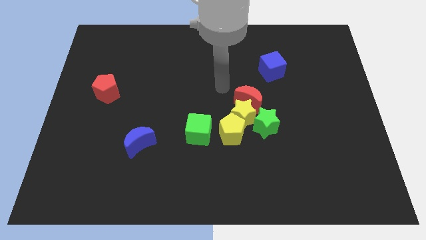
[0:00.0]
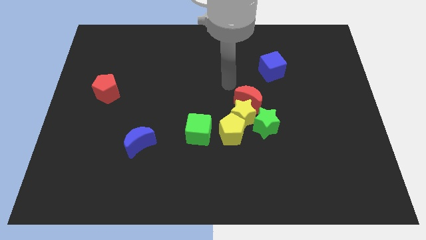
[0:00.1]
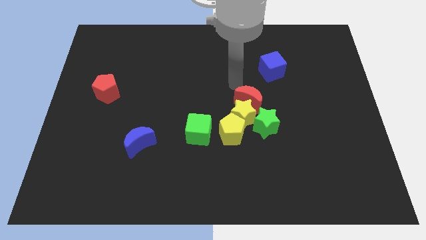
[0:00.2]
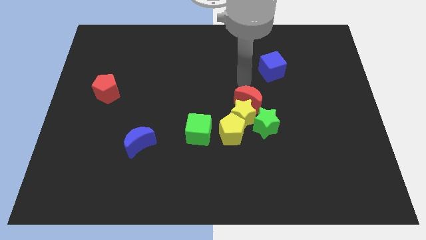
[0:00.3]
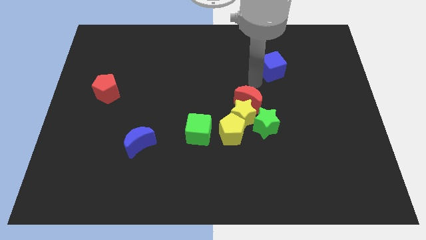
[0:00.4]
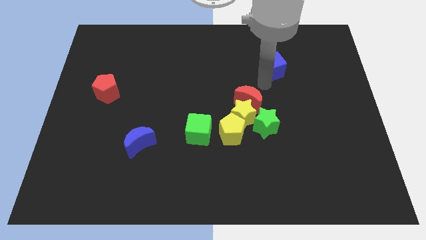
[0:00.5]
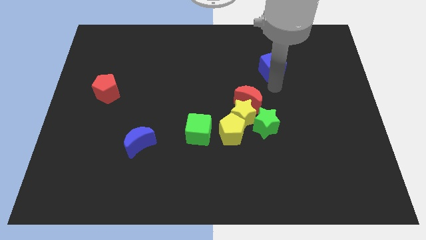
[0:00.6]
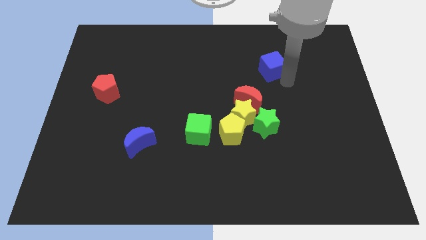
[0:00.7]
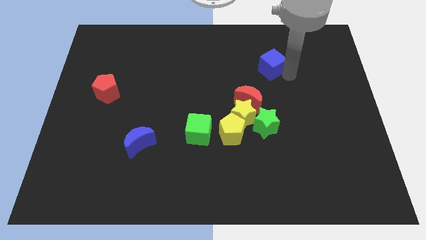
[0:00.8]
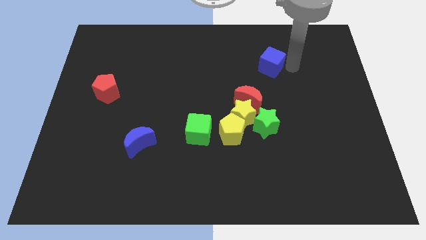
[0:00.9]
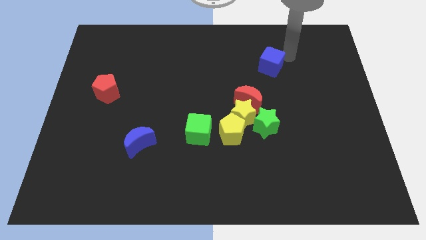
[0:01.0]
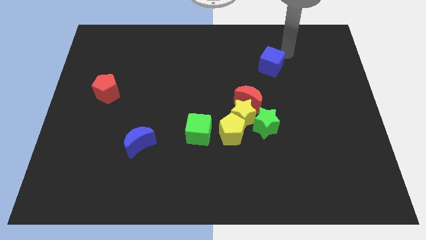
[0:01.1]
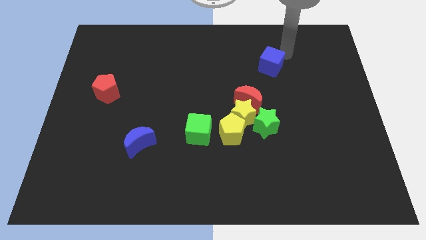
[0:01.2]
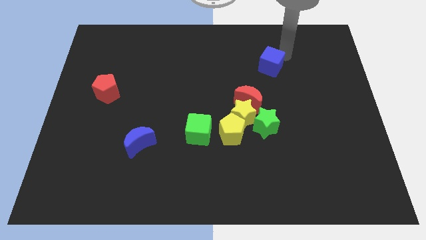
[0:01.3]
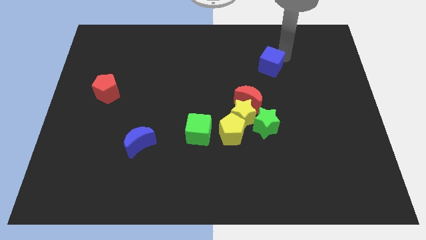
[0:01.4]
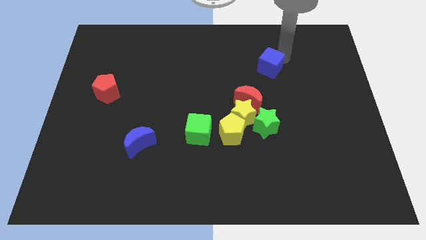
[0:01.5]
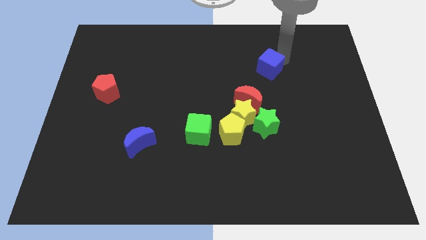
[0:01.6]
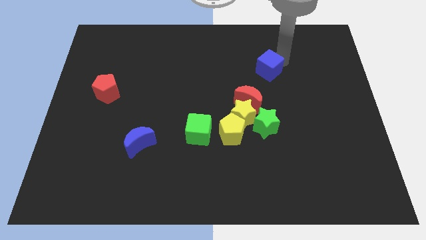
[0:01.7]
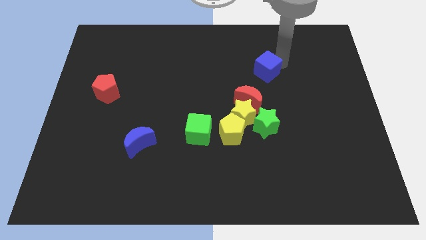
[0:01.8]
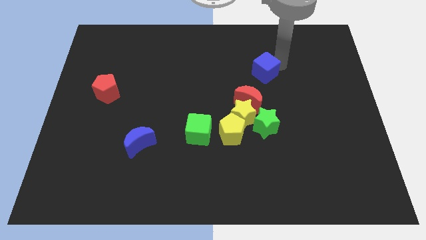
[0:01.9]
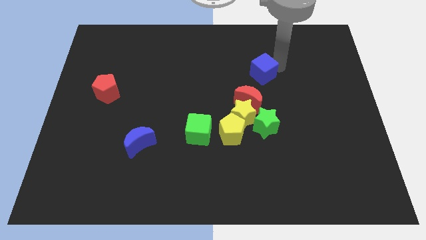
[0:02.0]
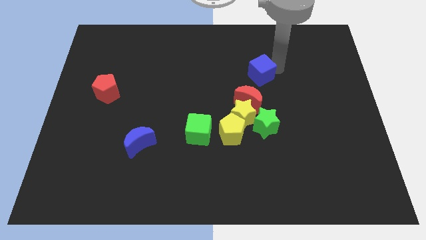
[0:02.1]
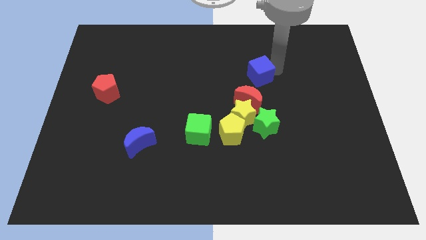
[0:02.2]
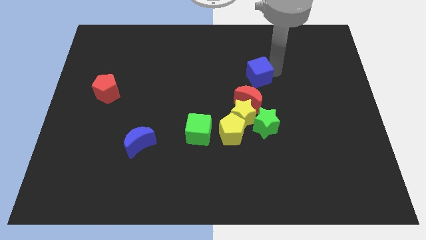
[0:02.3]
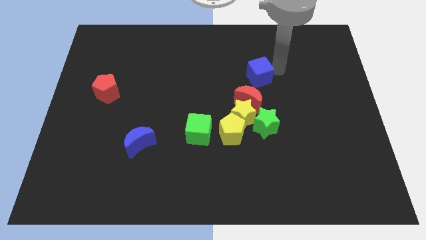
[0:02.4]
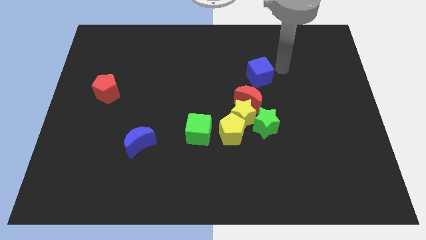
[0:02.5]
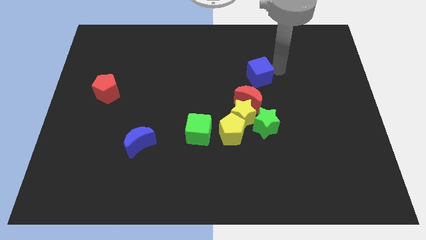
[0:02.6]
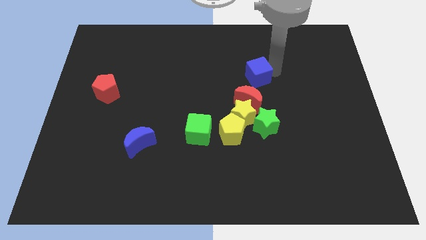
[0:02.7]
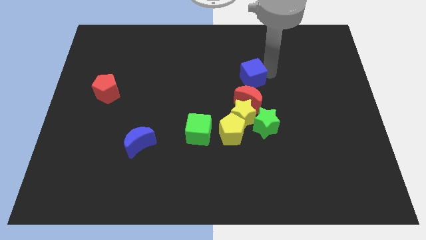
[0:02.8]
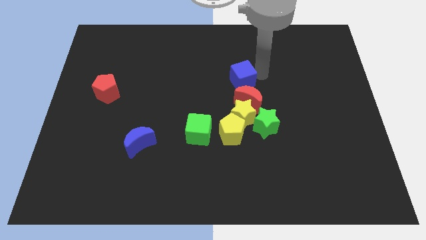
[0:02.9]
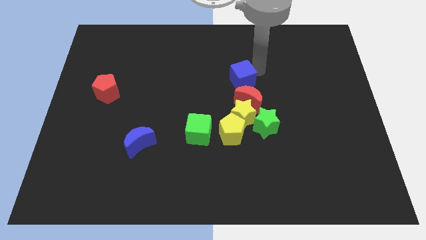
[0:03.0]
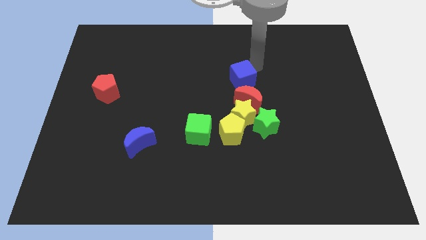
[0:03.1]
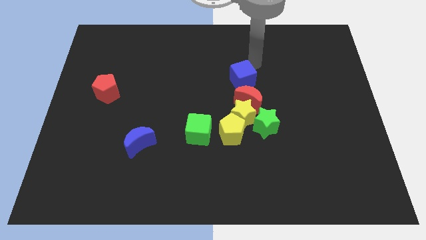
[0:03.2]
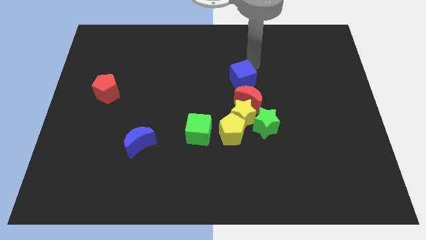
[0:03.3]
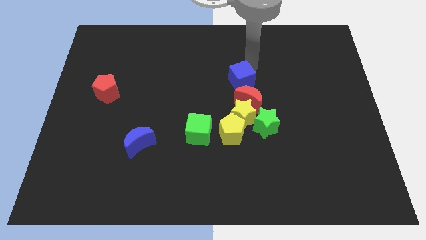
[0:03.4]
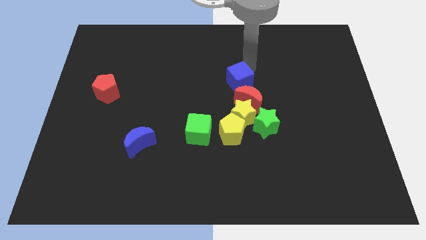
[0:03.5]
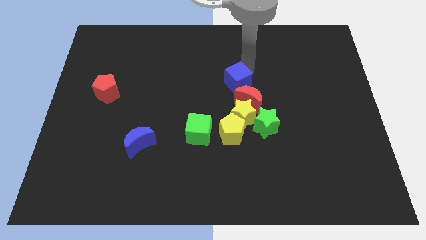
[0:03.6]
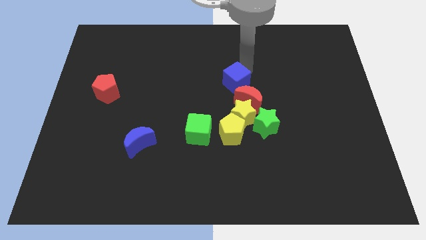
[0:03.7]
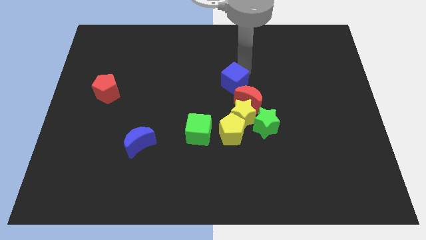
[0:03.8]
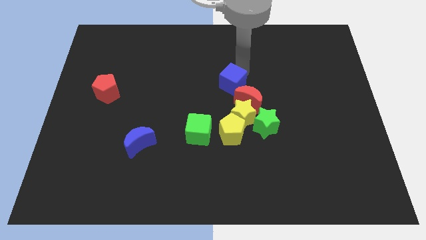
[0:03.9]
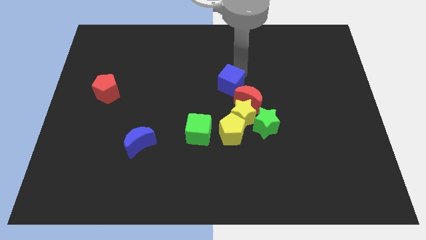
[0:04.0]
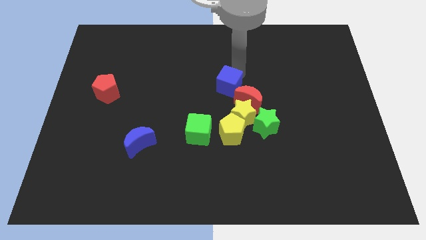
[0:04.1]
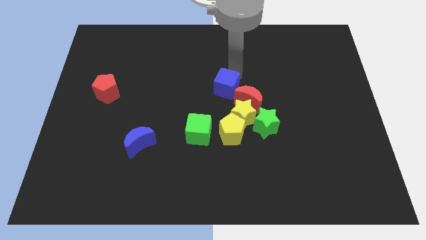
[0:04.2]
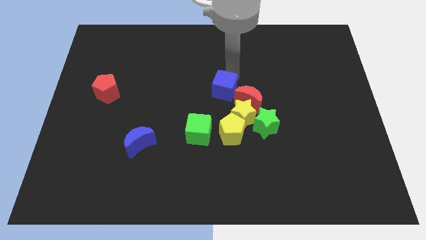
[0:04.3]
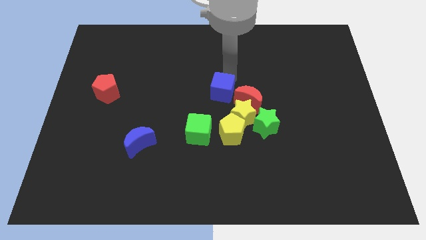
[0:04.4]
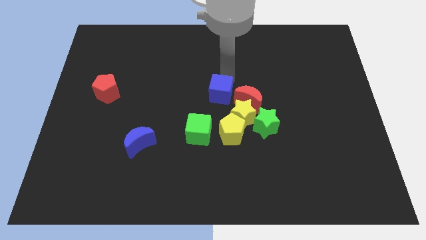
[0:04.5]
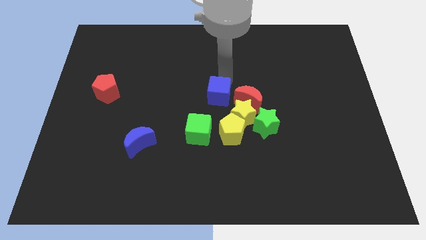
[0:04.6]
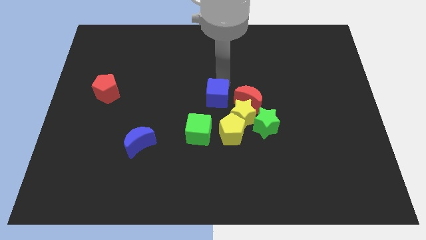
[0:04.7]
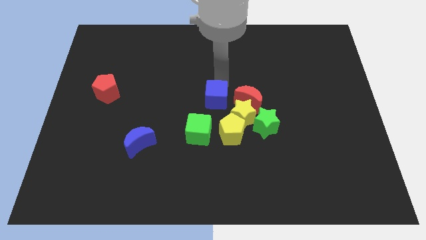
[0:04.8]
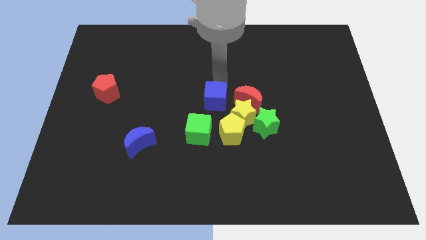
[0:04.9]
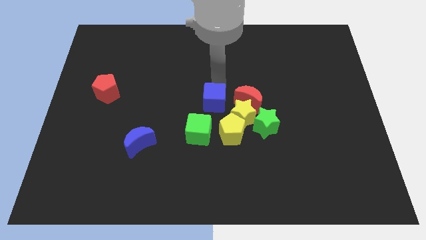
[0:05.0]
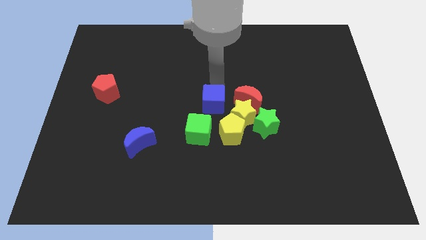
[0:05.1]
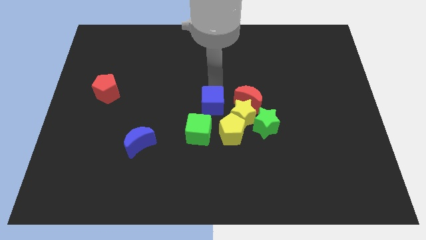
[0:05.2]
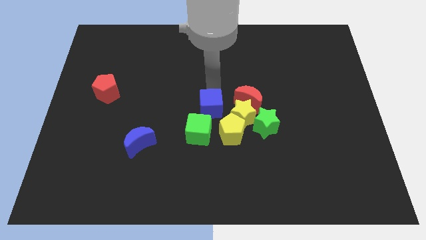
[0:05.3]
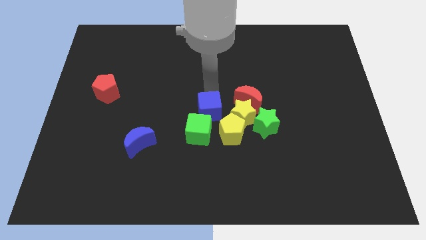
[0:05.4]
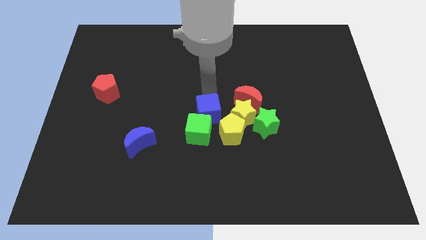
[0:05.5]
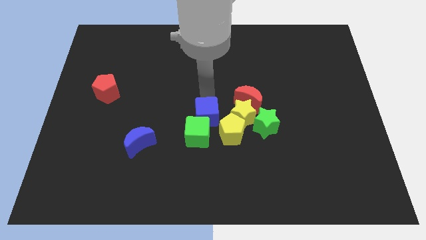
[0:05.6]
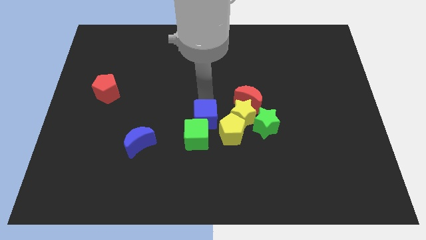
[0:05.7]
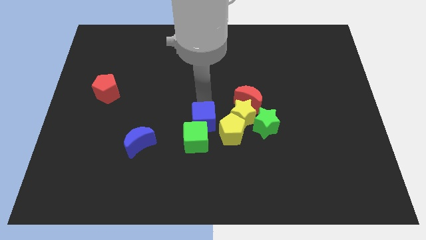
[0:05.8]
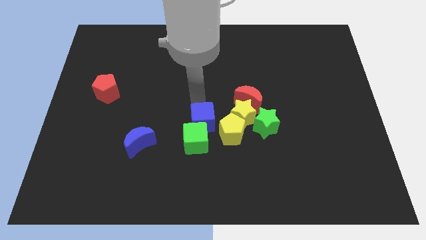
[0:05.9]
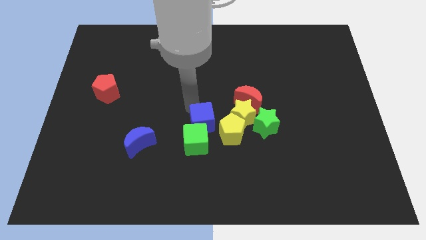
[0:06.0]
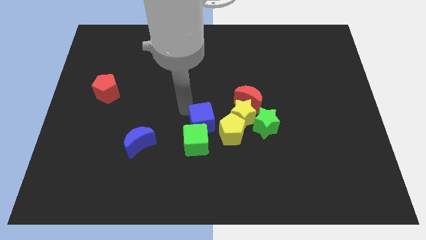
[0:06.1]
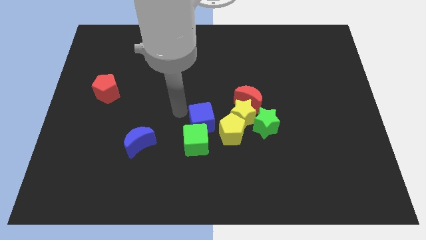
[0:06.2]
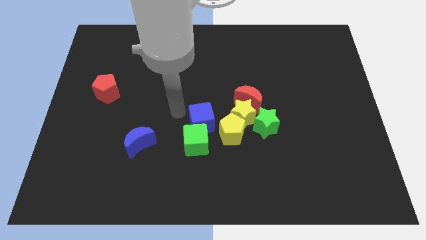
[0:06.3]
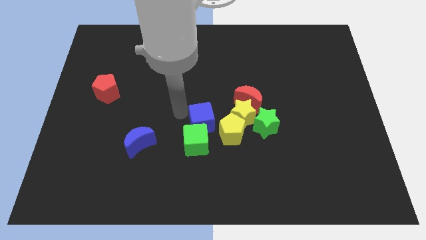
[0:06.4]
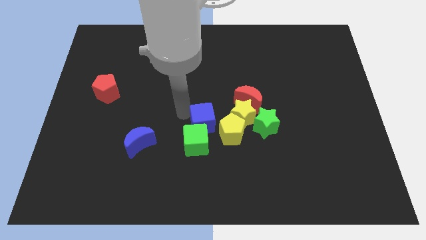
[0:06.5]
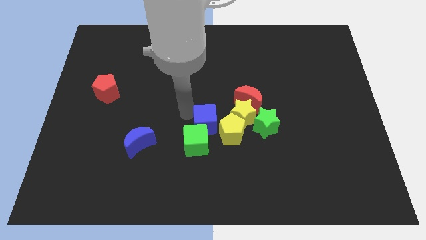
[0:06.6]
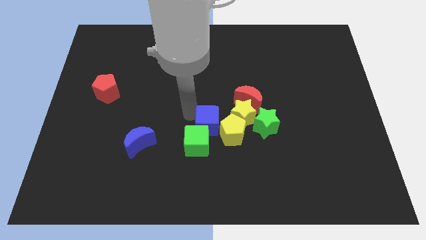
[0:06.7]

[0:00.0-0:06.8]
slide the blue cube next to the yellow pentagon

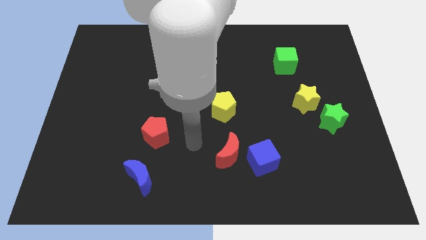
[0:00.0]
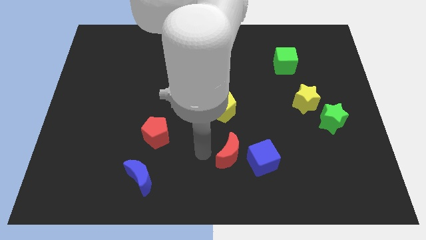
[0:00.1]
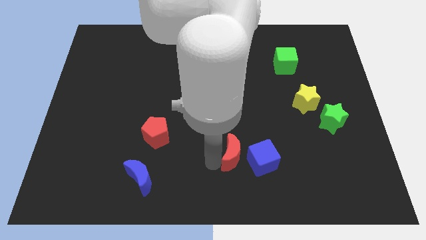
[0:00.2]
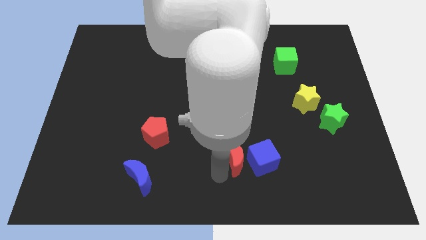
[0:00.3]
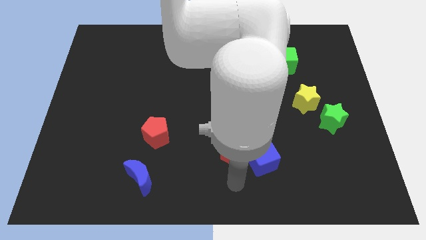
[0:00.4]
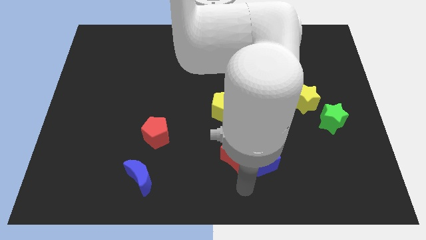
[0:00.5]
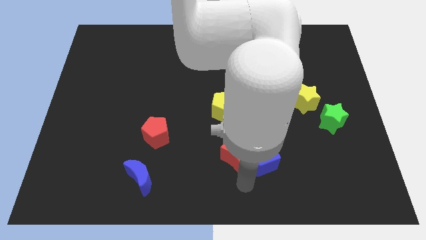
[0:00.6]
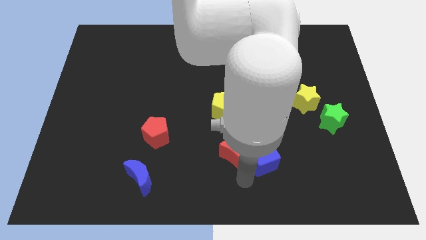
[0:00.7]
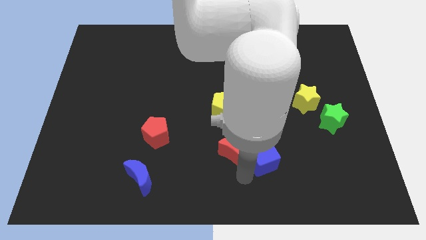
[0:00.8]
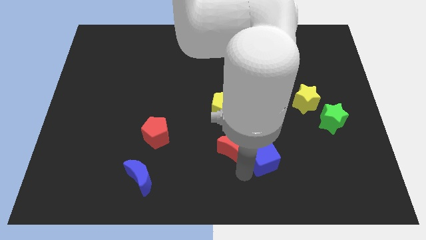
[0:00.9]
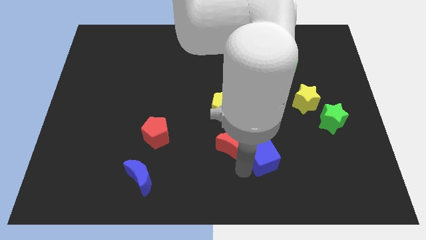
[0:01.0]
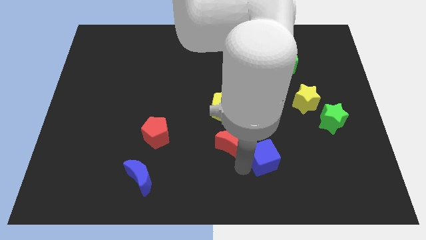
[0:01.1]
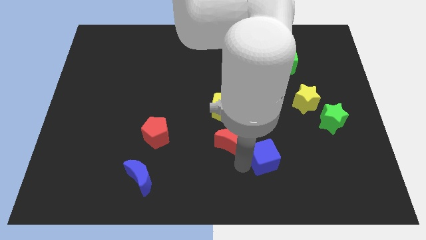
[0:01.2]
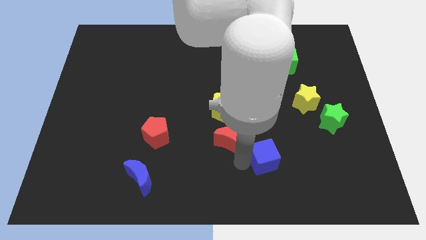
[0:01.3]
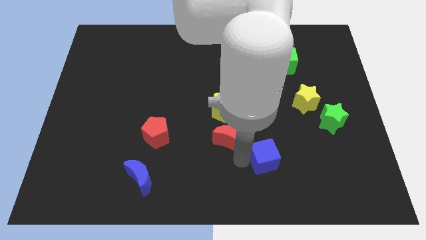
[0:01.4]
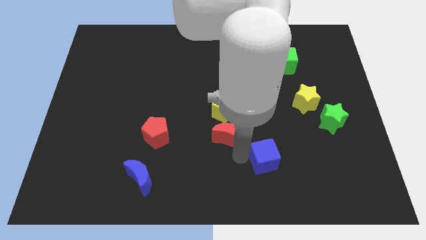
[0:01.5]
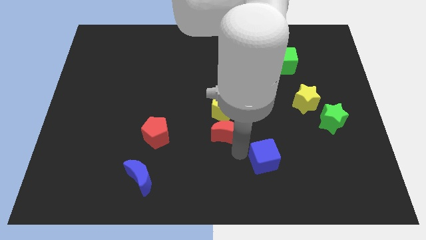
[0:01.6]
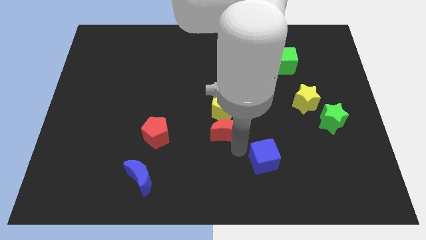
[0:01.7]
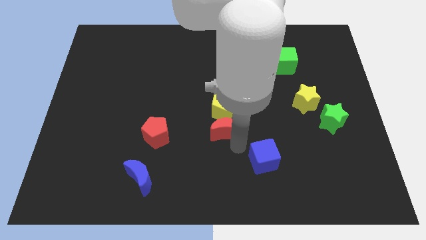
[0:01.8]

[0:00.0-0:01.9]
put the red moon to the yellow pentagon
